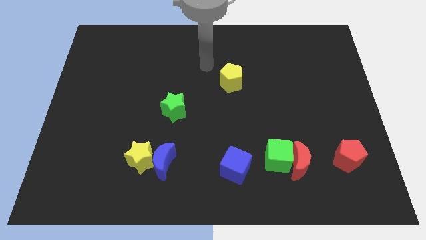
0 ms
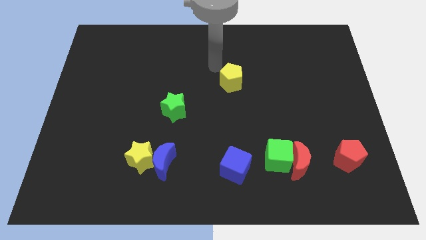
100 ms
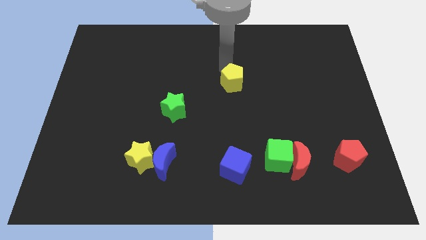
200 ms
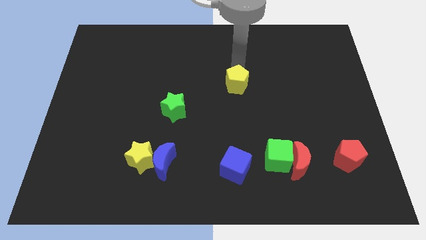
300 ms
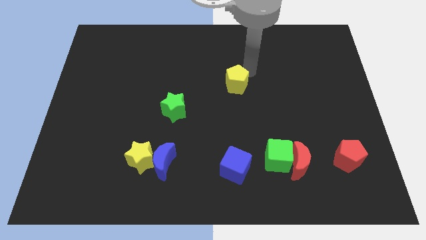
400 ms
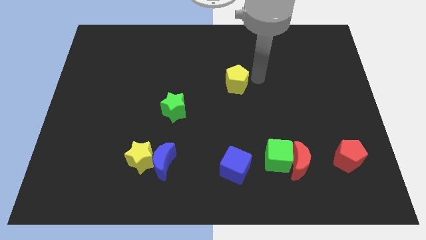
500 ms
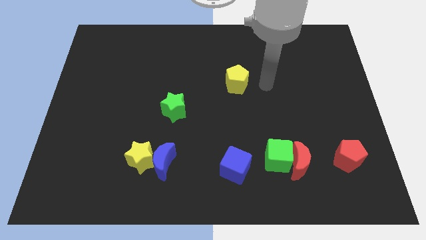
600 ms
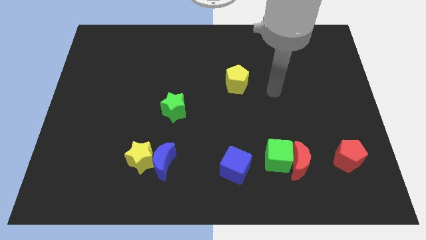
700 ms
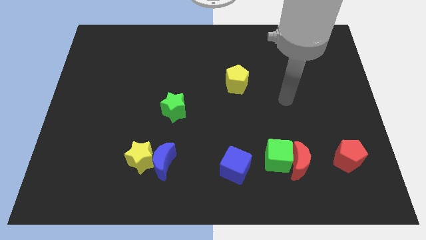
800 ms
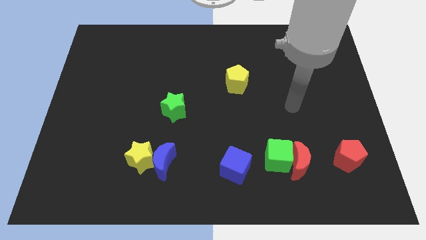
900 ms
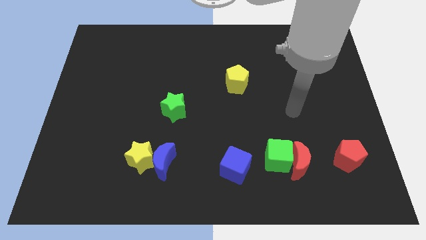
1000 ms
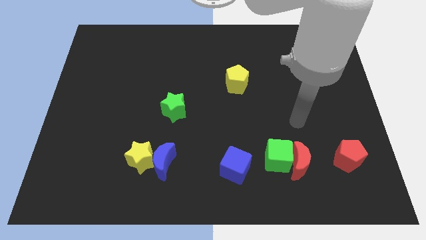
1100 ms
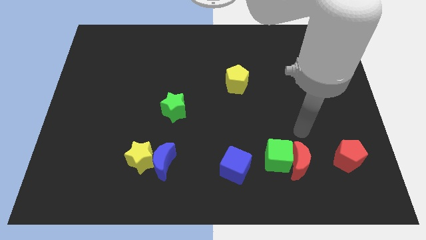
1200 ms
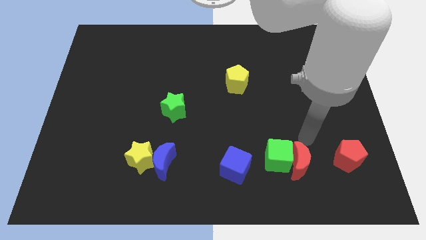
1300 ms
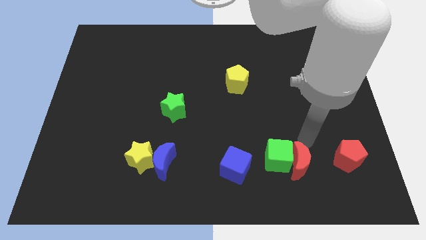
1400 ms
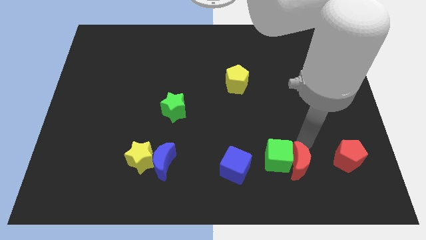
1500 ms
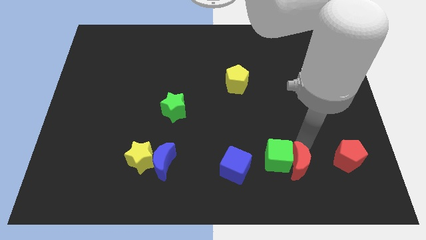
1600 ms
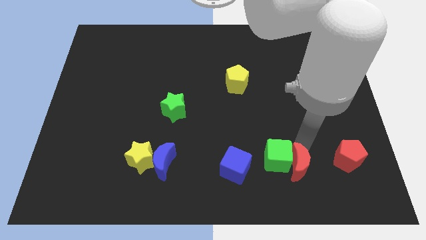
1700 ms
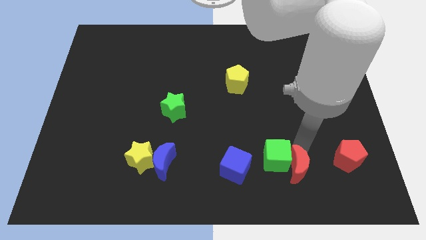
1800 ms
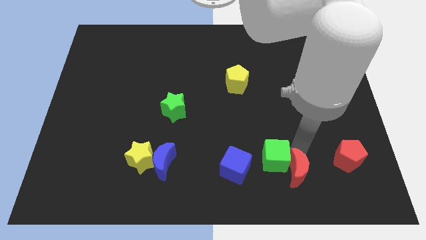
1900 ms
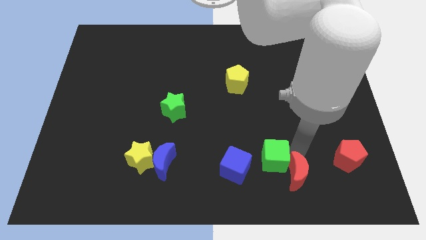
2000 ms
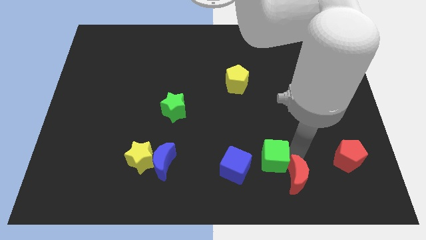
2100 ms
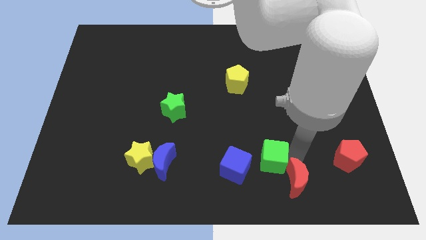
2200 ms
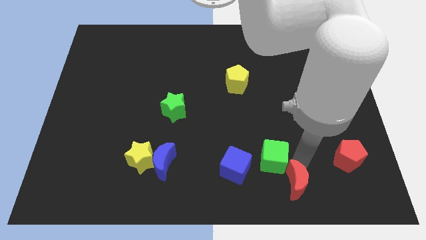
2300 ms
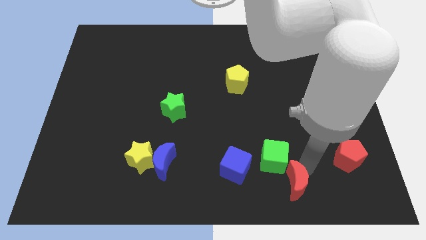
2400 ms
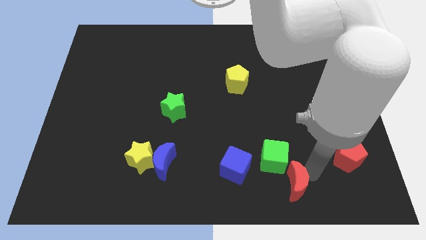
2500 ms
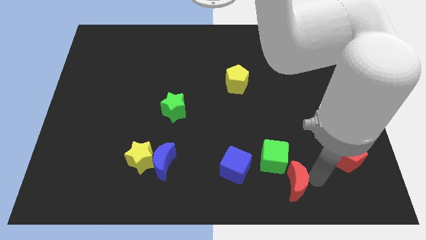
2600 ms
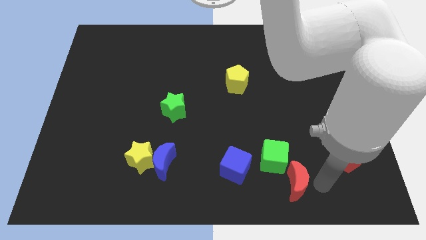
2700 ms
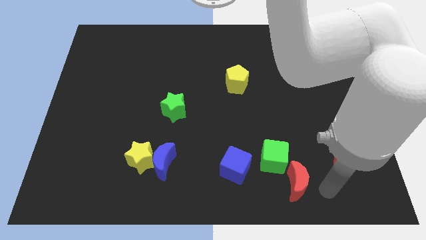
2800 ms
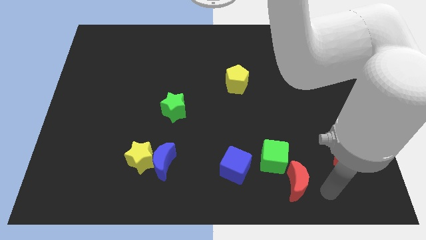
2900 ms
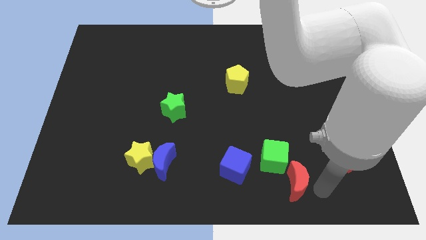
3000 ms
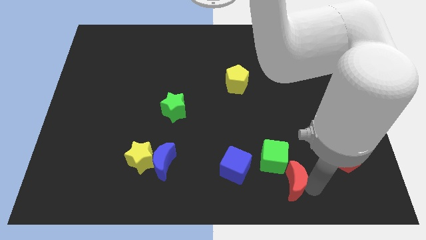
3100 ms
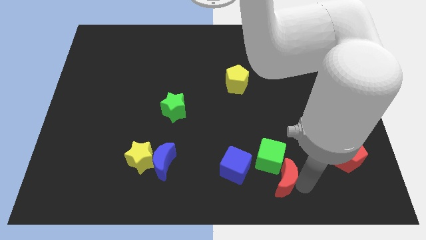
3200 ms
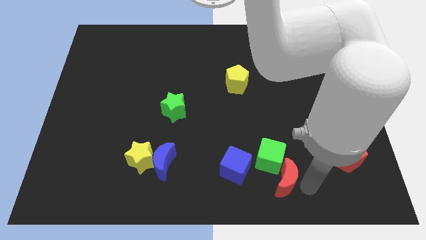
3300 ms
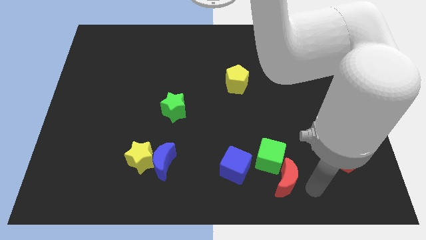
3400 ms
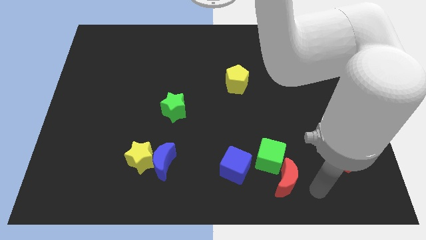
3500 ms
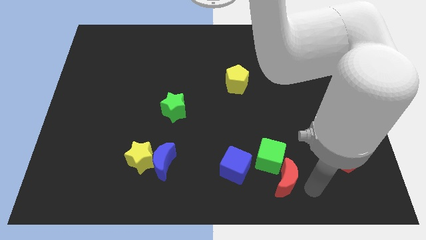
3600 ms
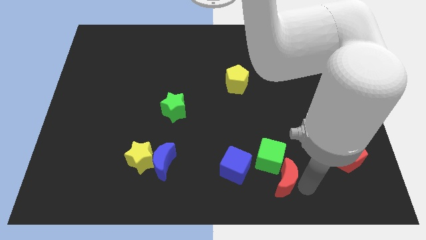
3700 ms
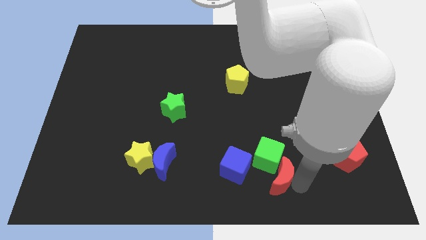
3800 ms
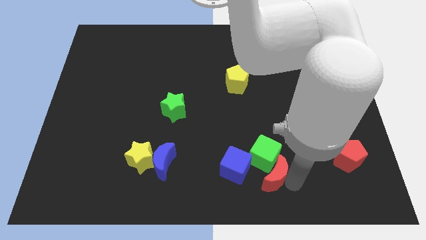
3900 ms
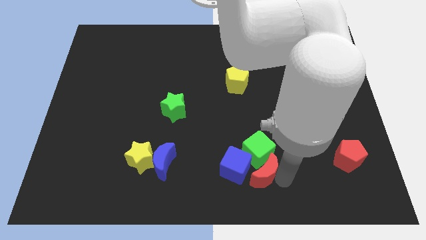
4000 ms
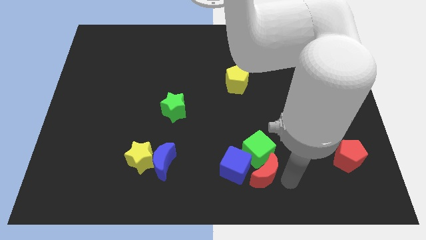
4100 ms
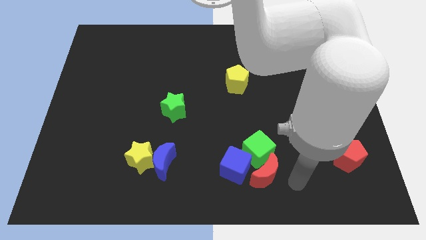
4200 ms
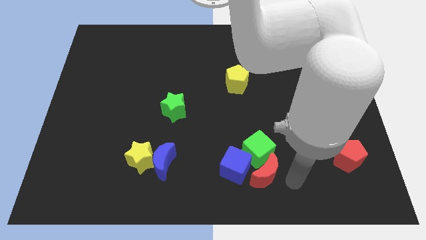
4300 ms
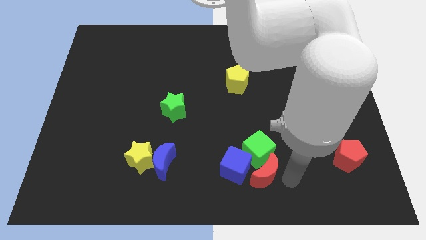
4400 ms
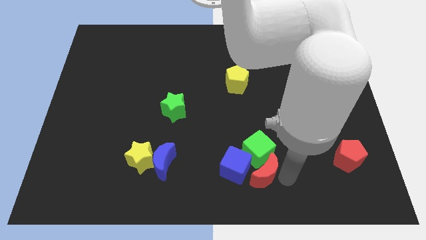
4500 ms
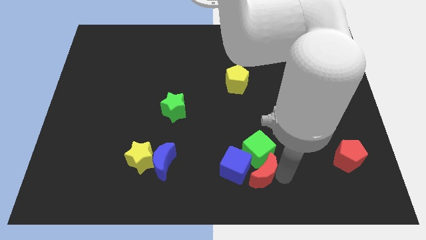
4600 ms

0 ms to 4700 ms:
move the red moon close to the blue cube

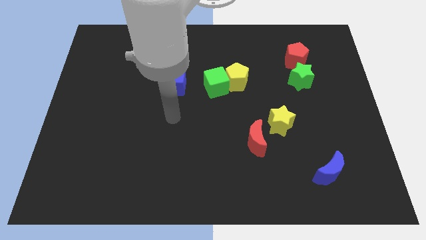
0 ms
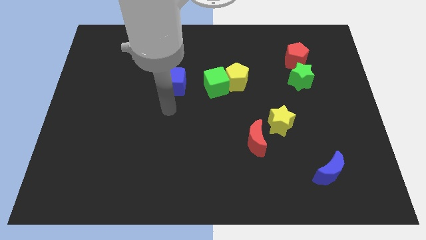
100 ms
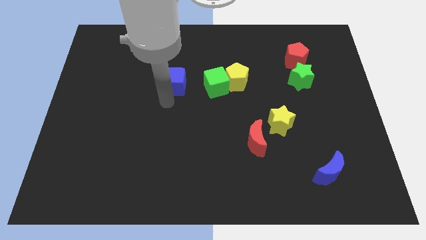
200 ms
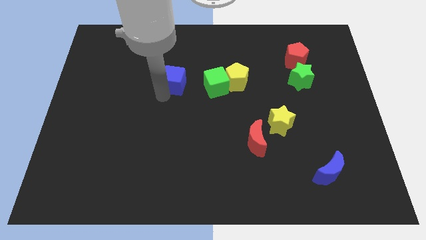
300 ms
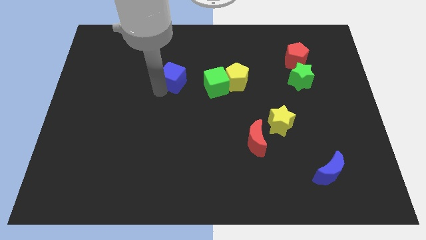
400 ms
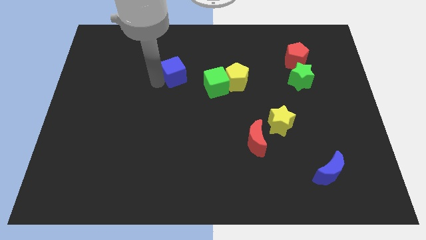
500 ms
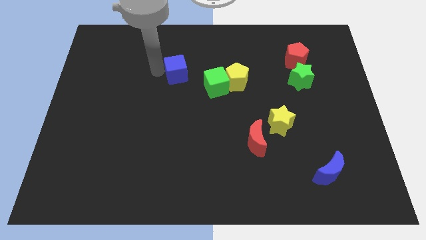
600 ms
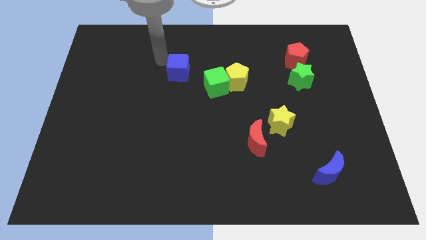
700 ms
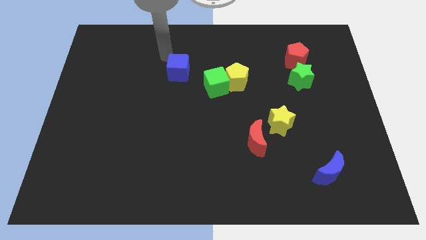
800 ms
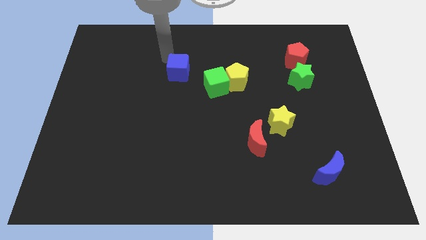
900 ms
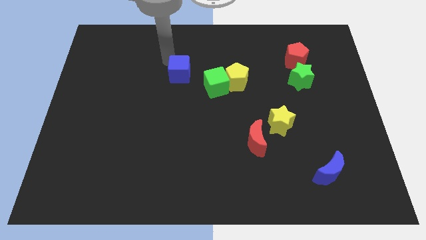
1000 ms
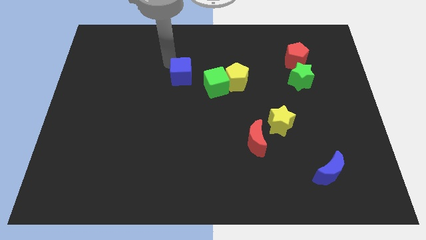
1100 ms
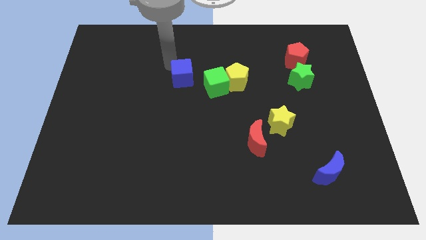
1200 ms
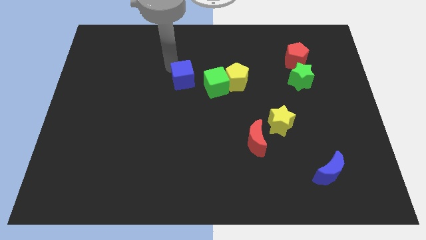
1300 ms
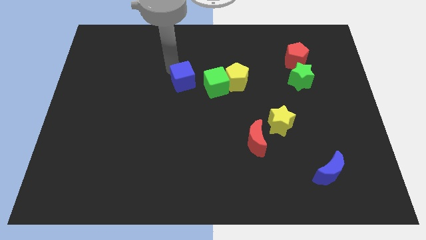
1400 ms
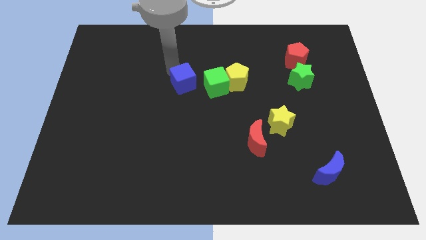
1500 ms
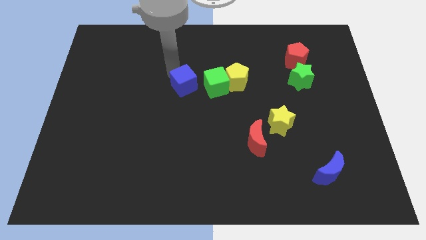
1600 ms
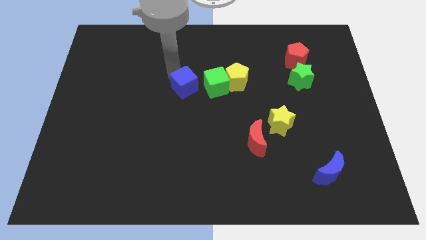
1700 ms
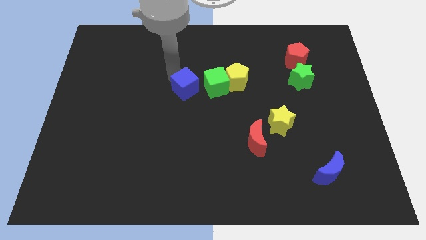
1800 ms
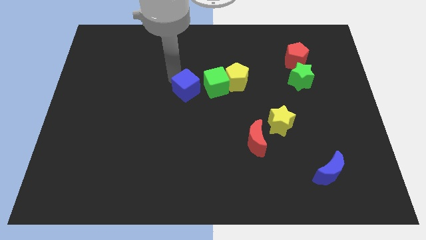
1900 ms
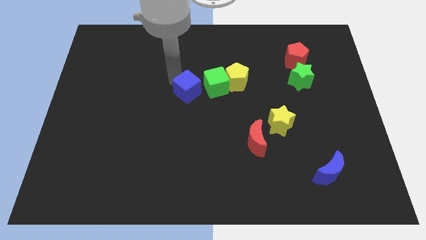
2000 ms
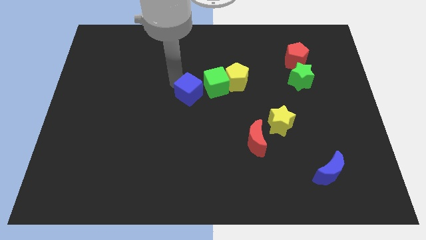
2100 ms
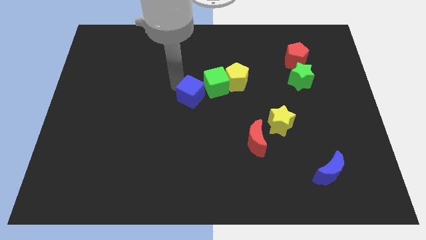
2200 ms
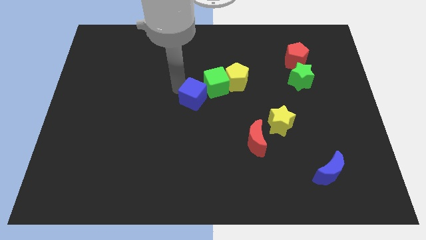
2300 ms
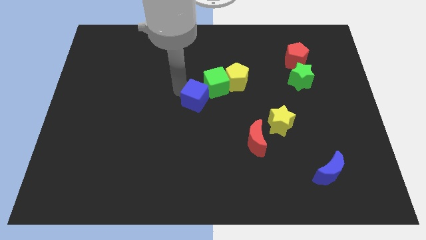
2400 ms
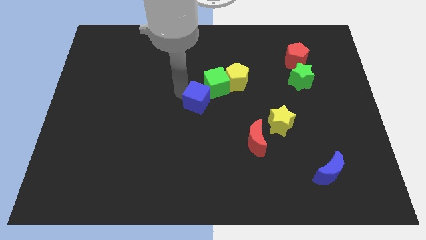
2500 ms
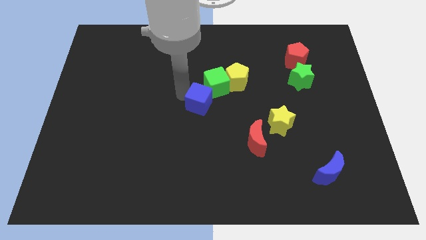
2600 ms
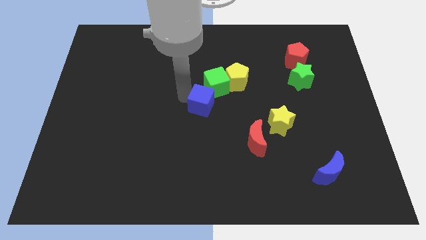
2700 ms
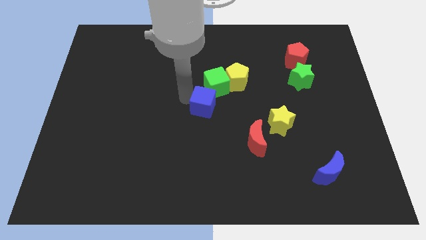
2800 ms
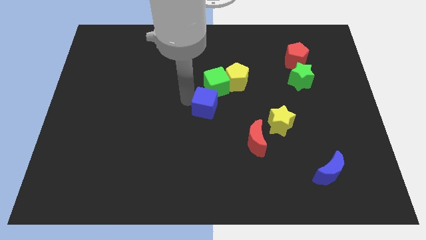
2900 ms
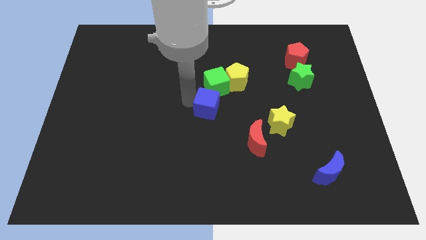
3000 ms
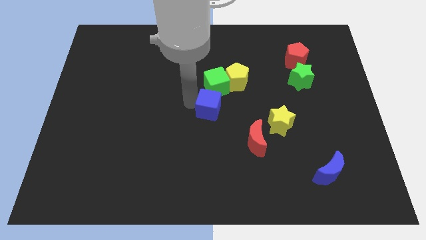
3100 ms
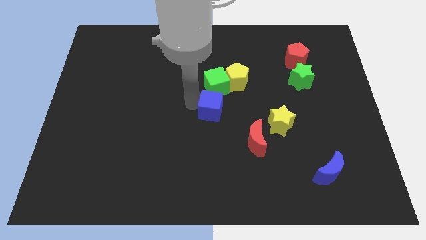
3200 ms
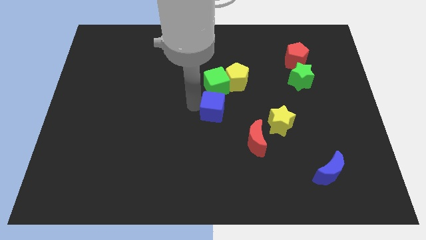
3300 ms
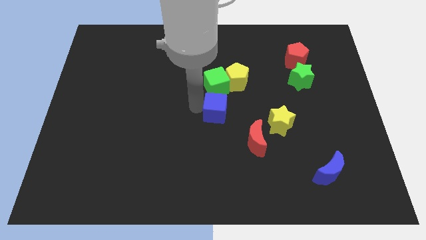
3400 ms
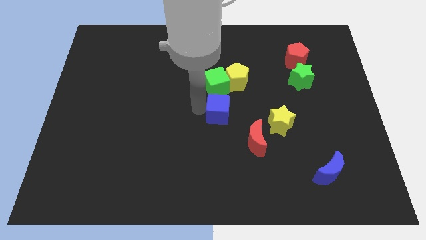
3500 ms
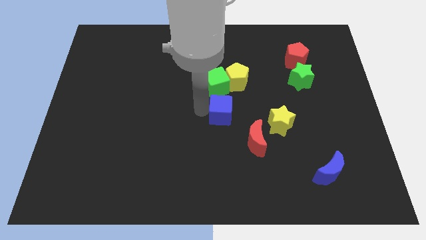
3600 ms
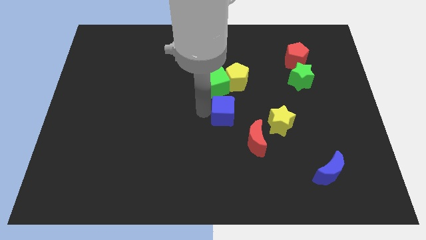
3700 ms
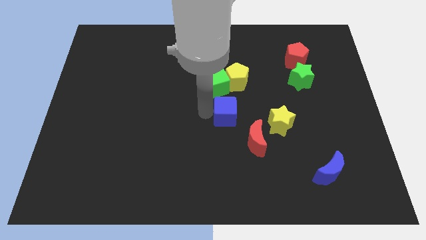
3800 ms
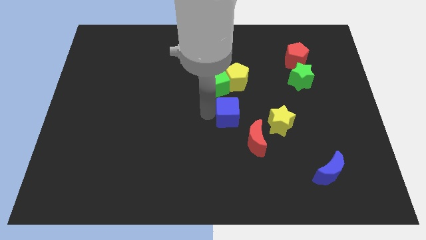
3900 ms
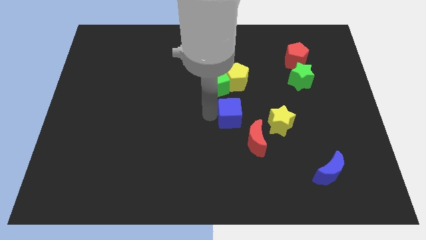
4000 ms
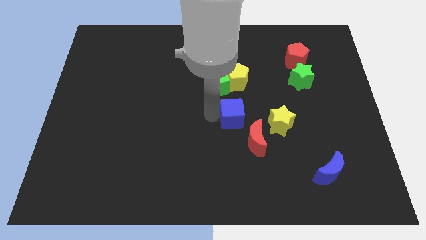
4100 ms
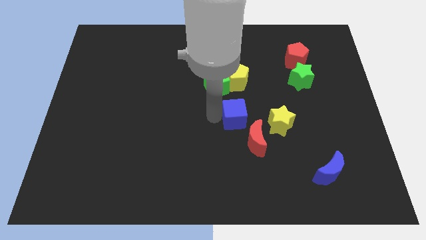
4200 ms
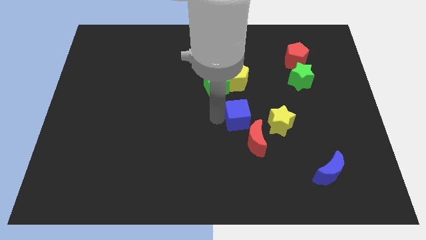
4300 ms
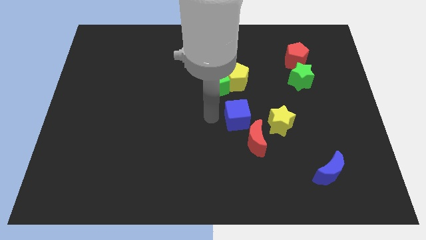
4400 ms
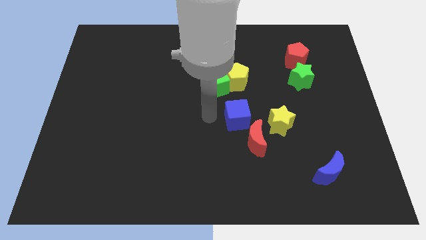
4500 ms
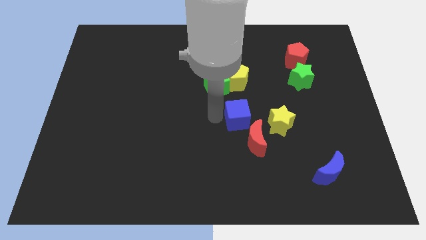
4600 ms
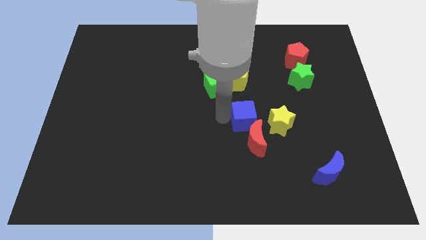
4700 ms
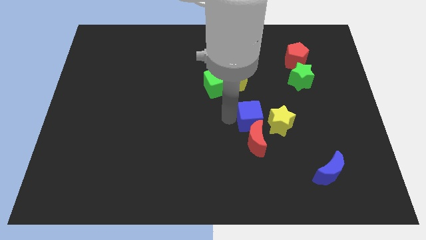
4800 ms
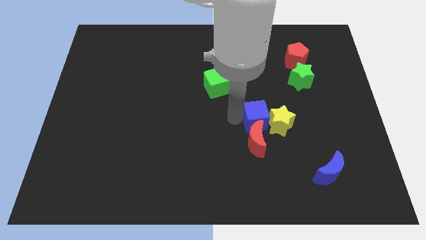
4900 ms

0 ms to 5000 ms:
slide the blue cube to the yellow star
